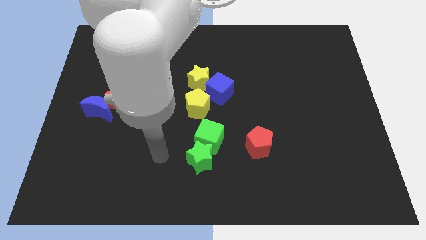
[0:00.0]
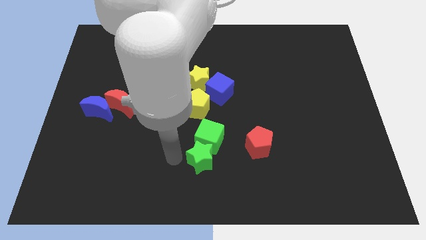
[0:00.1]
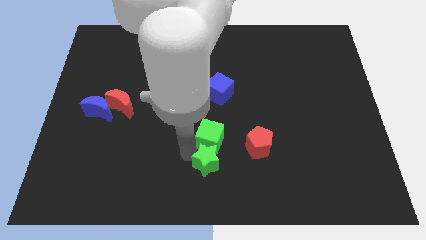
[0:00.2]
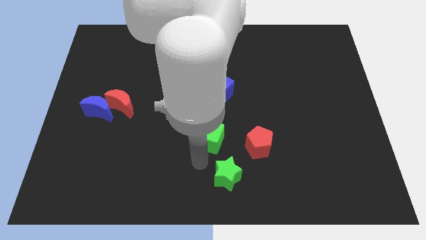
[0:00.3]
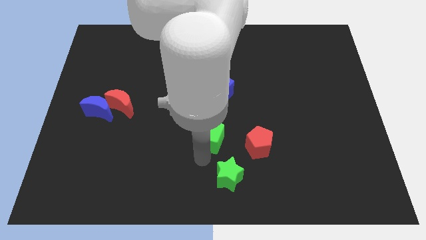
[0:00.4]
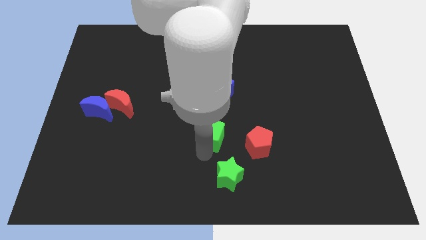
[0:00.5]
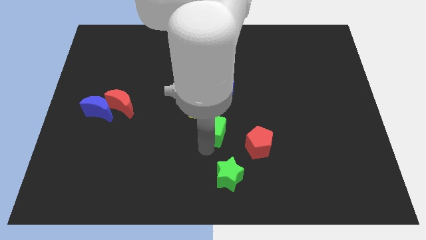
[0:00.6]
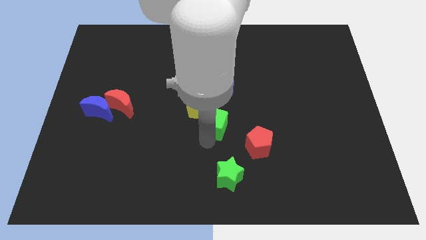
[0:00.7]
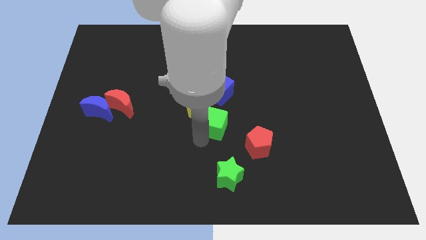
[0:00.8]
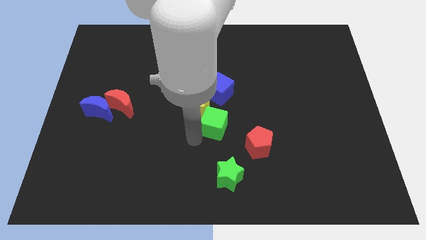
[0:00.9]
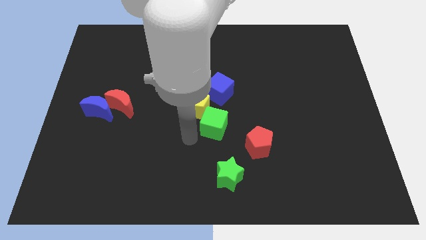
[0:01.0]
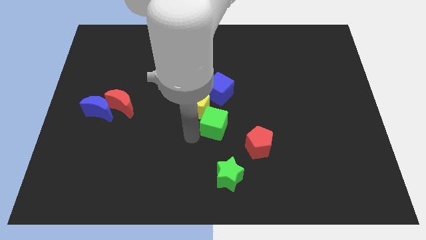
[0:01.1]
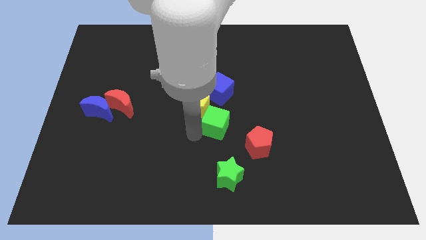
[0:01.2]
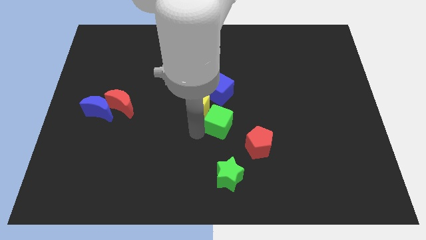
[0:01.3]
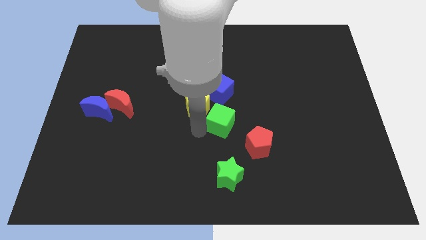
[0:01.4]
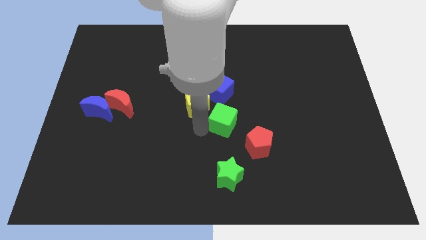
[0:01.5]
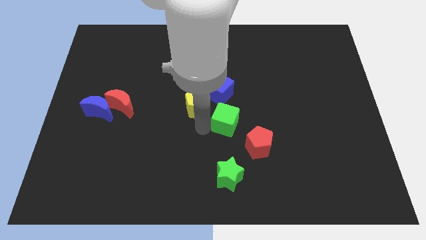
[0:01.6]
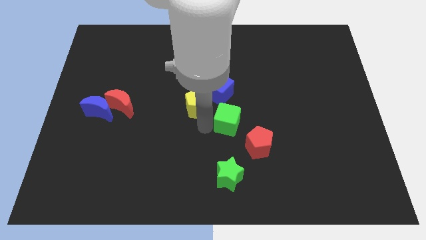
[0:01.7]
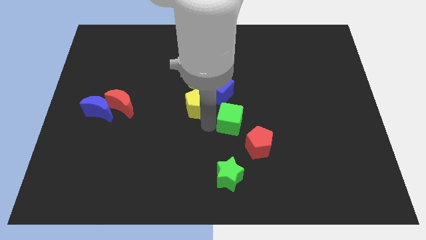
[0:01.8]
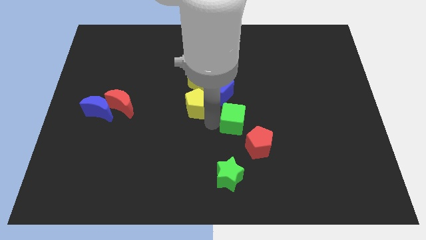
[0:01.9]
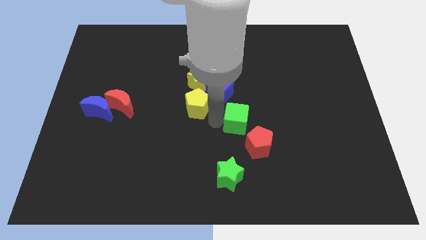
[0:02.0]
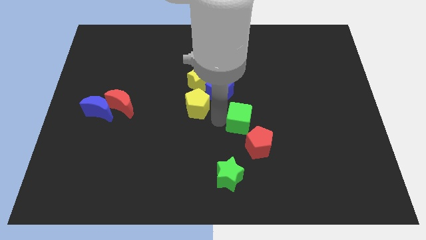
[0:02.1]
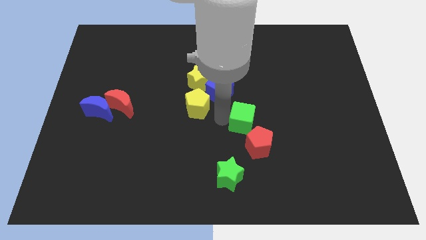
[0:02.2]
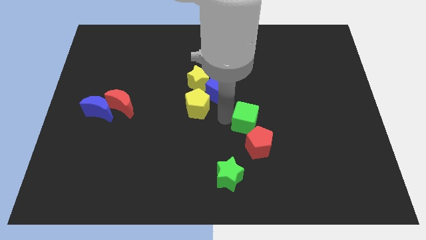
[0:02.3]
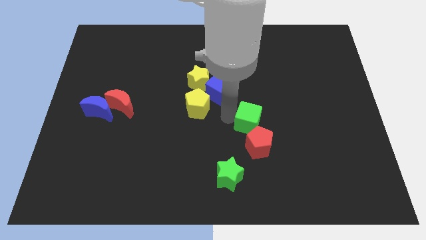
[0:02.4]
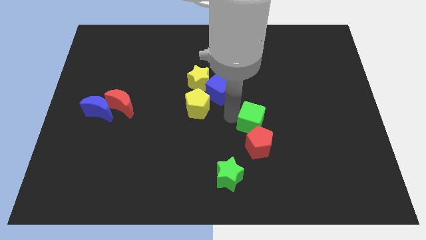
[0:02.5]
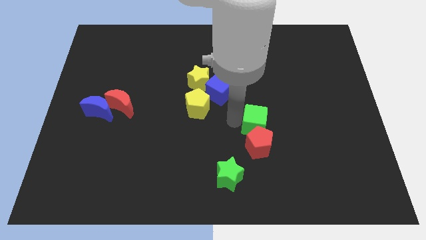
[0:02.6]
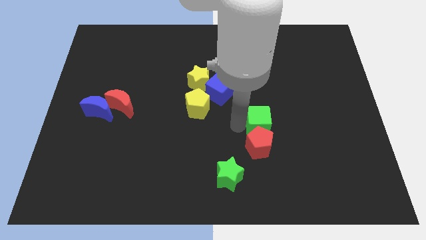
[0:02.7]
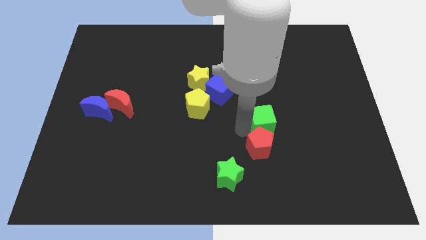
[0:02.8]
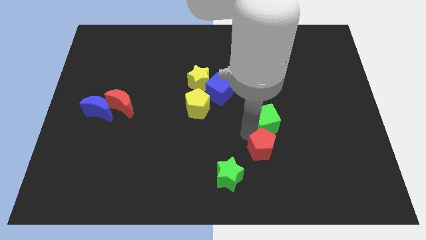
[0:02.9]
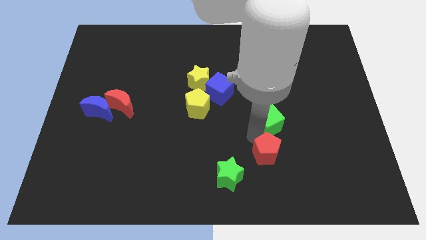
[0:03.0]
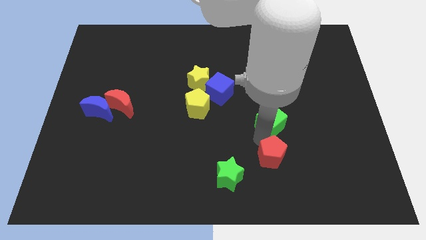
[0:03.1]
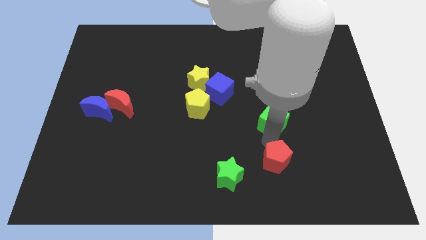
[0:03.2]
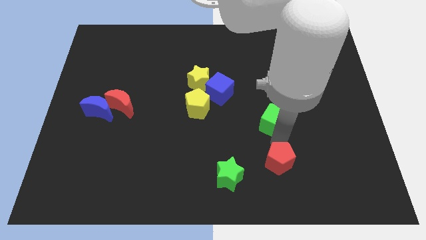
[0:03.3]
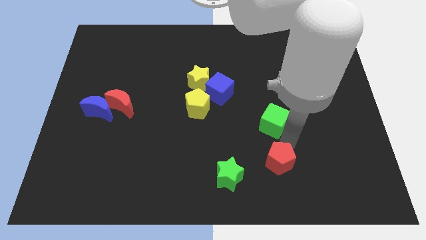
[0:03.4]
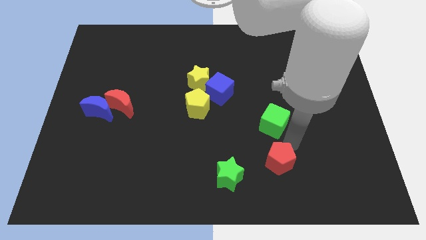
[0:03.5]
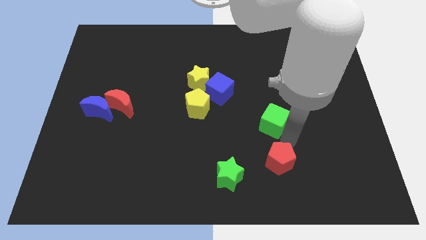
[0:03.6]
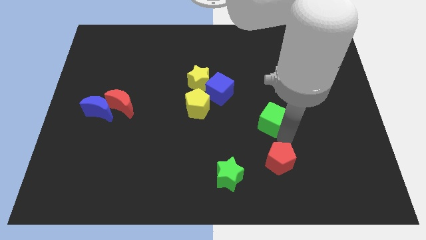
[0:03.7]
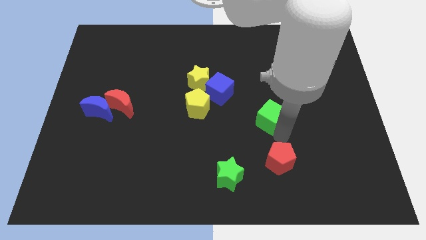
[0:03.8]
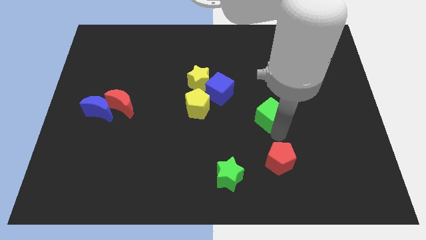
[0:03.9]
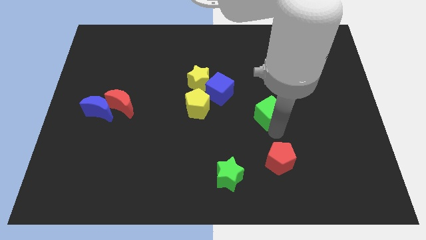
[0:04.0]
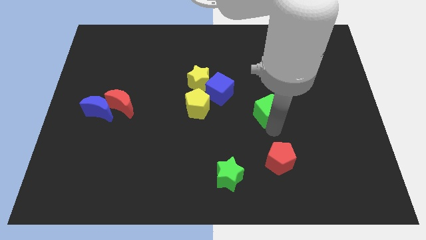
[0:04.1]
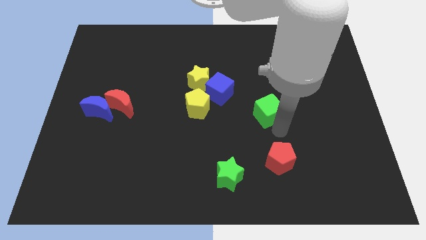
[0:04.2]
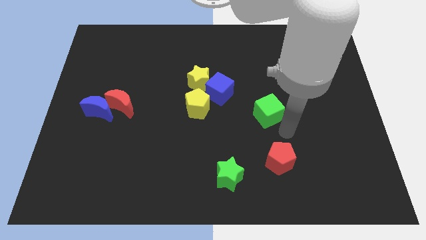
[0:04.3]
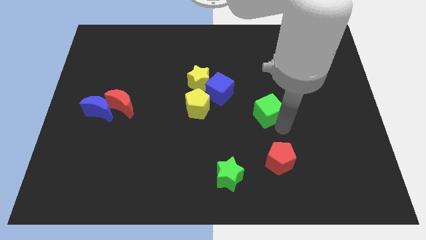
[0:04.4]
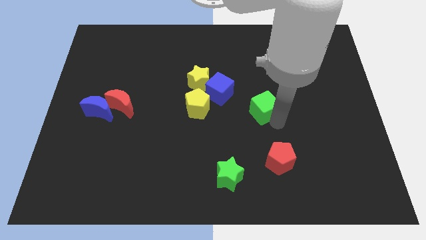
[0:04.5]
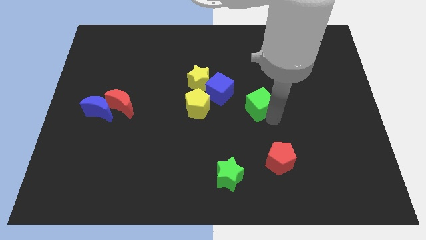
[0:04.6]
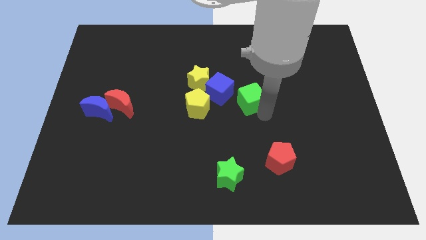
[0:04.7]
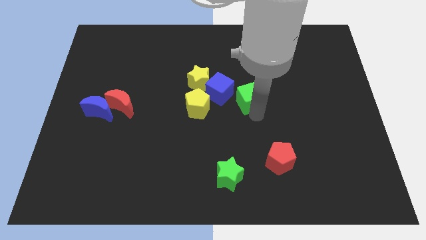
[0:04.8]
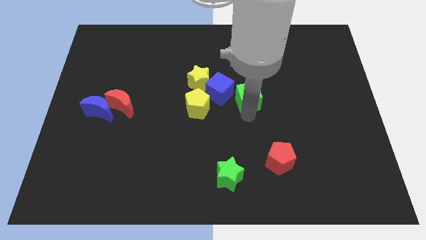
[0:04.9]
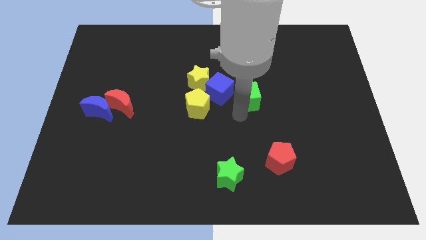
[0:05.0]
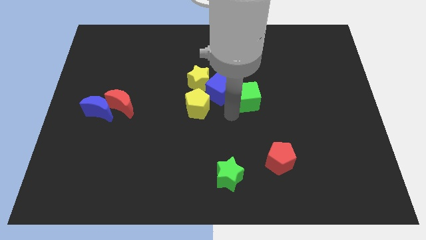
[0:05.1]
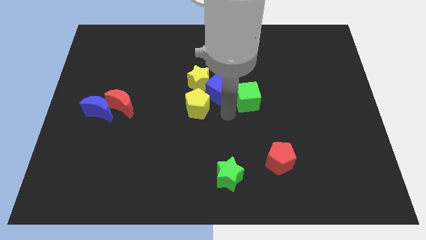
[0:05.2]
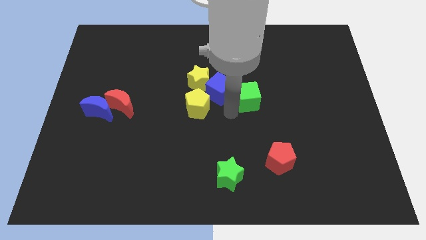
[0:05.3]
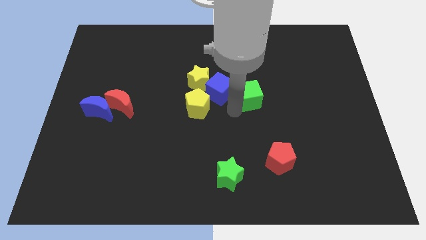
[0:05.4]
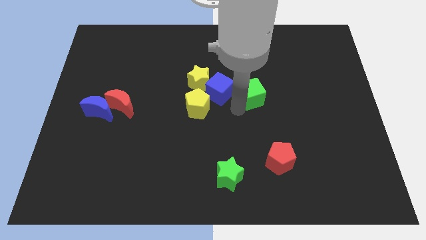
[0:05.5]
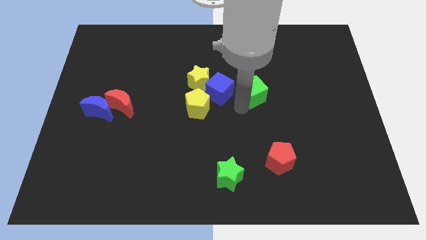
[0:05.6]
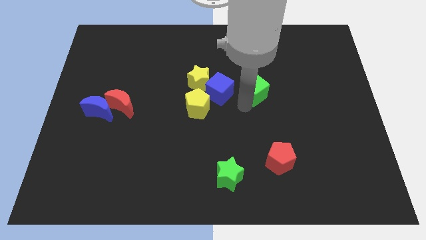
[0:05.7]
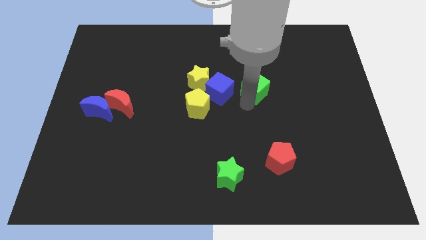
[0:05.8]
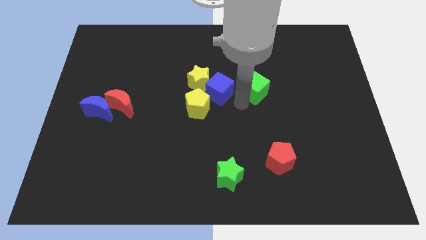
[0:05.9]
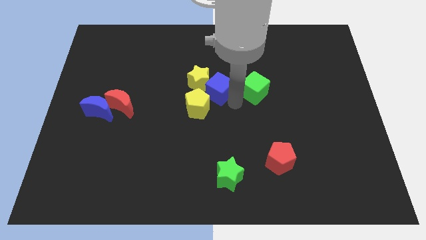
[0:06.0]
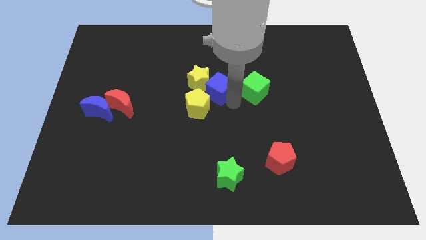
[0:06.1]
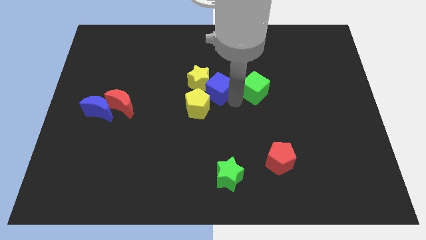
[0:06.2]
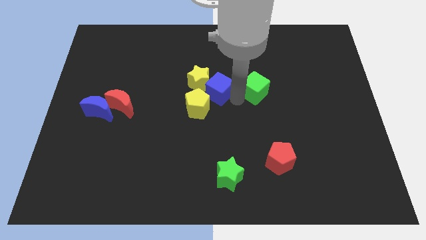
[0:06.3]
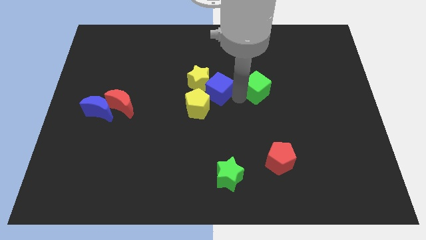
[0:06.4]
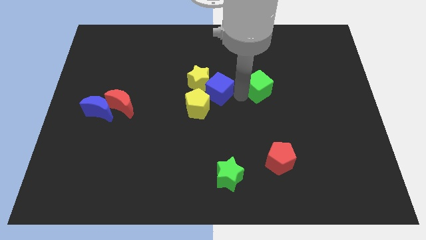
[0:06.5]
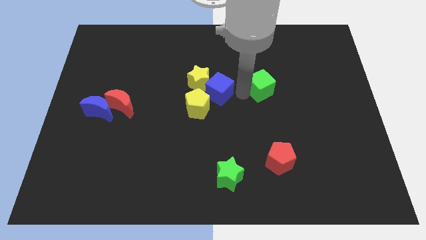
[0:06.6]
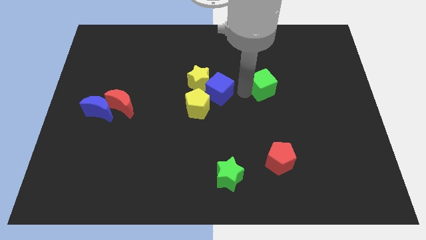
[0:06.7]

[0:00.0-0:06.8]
push the green cube up and right

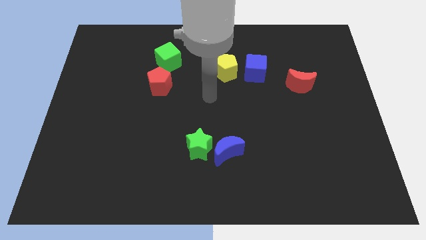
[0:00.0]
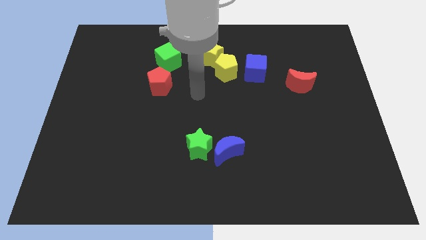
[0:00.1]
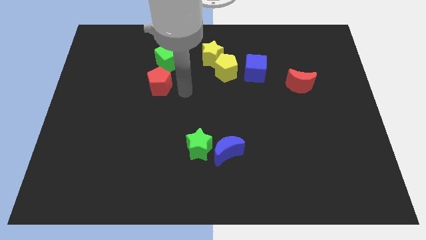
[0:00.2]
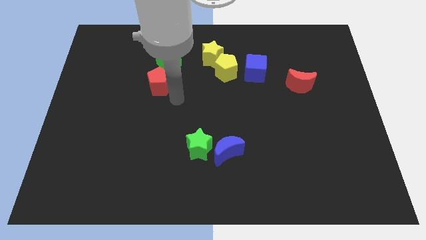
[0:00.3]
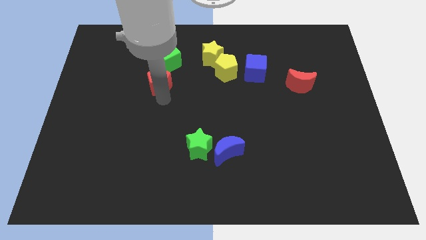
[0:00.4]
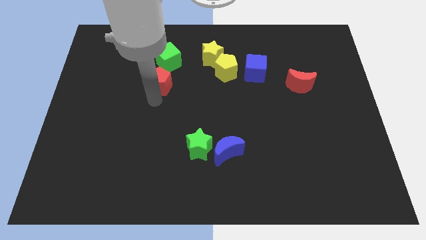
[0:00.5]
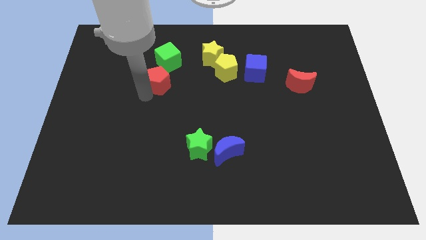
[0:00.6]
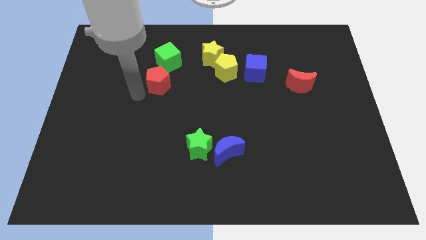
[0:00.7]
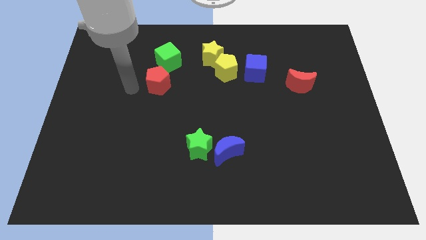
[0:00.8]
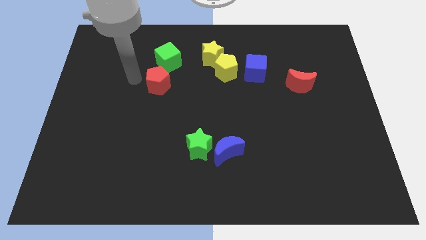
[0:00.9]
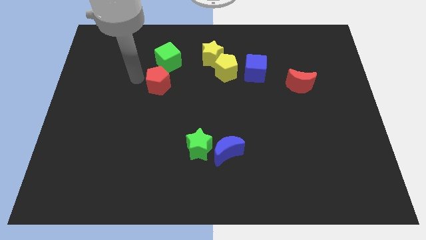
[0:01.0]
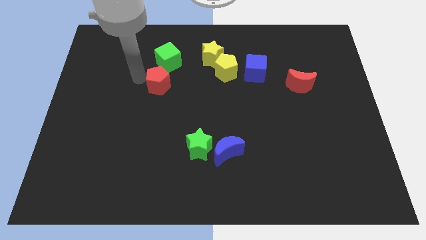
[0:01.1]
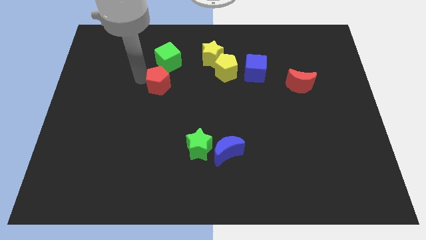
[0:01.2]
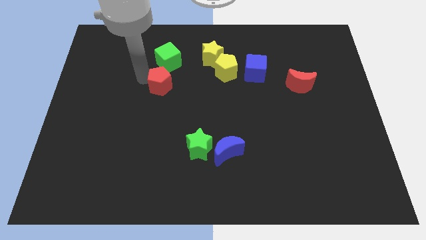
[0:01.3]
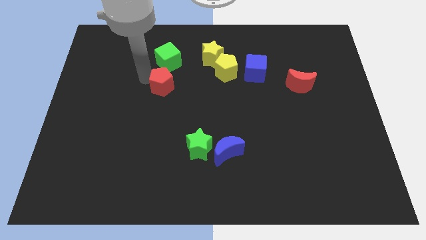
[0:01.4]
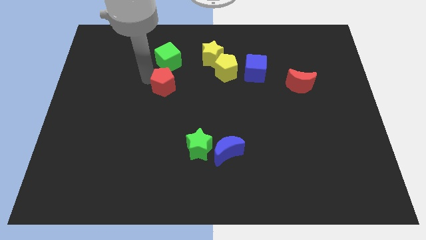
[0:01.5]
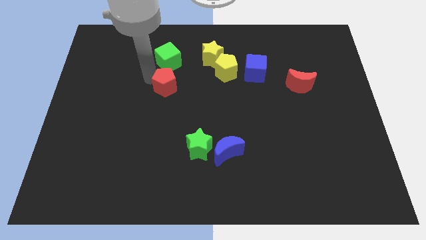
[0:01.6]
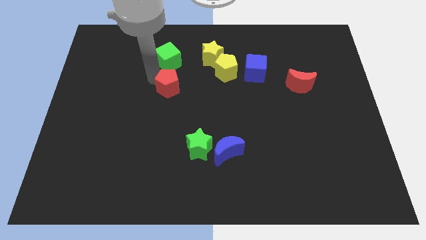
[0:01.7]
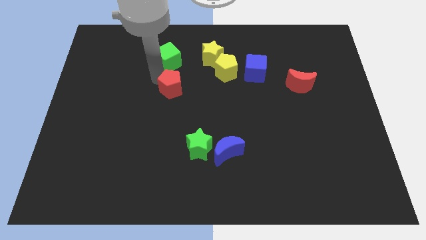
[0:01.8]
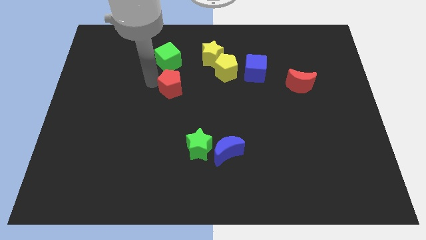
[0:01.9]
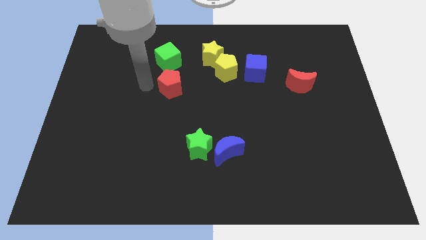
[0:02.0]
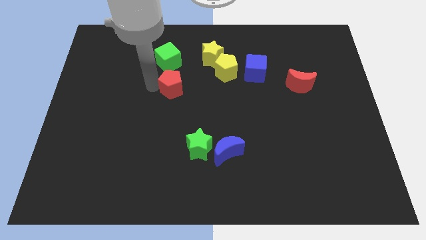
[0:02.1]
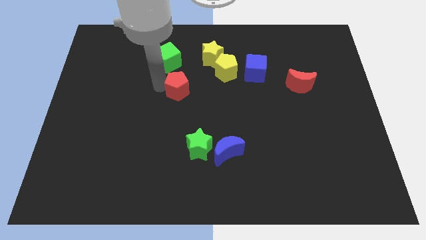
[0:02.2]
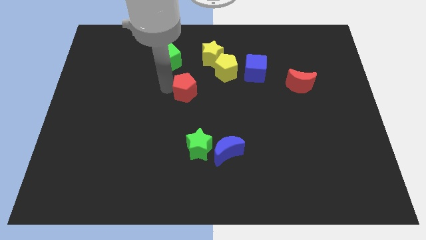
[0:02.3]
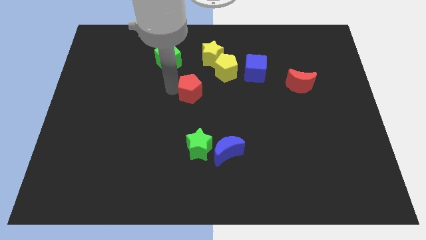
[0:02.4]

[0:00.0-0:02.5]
push the red pentagon a little right
